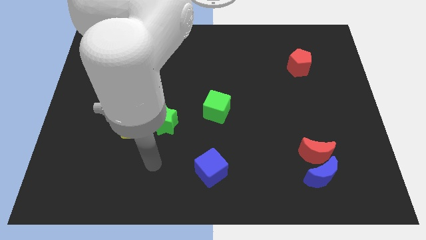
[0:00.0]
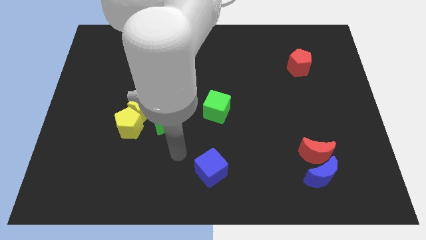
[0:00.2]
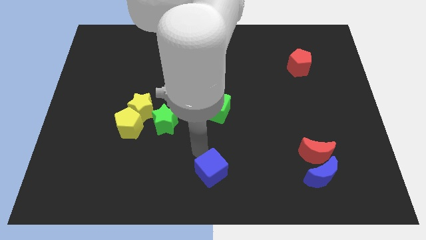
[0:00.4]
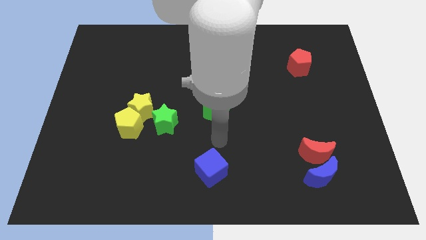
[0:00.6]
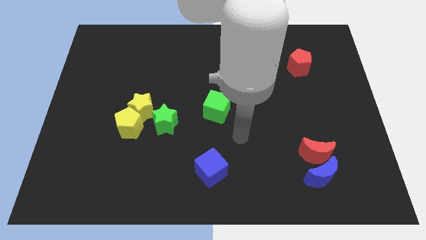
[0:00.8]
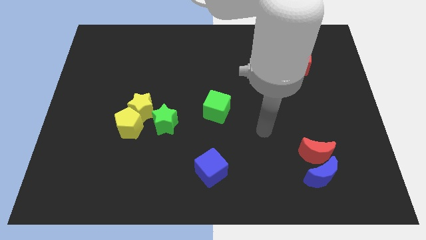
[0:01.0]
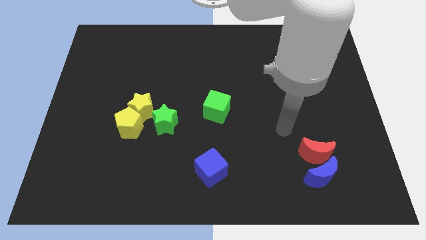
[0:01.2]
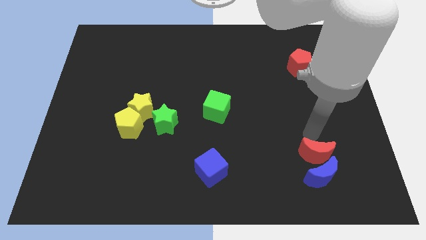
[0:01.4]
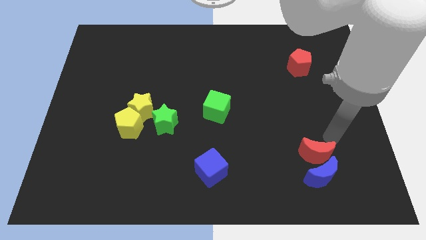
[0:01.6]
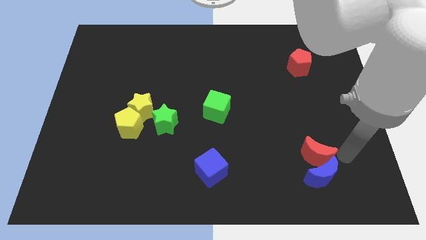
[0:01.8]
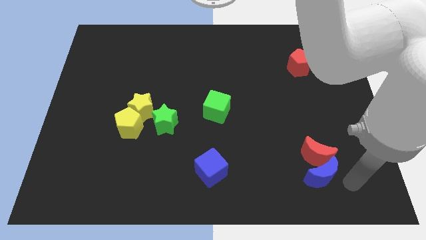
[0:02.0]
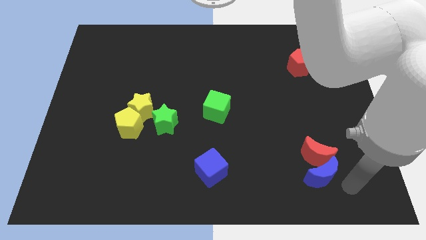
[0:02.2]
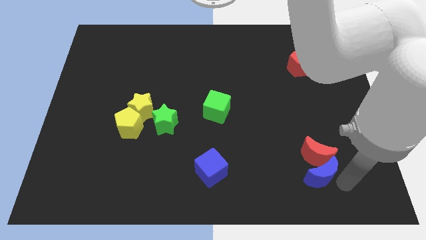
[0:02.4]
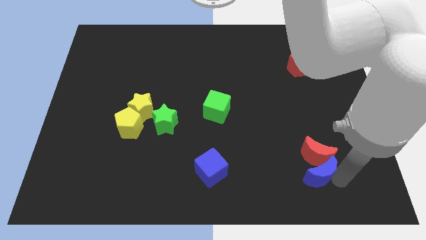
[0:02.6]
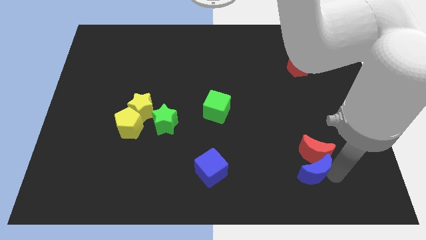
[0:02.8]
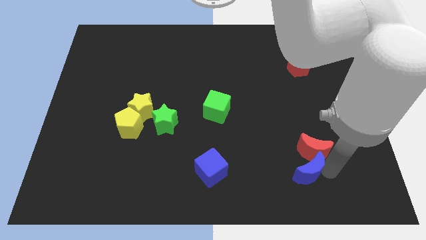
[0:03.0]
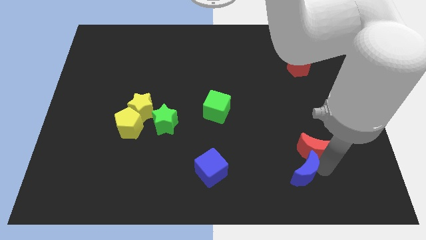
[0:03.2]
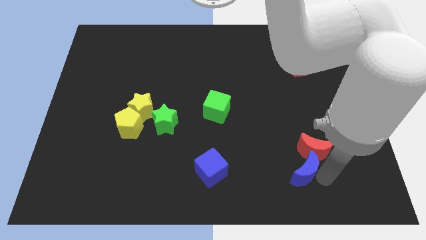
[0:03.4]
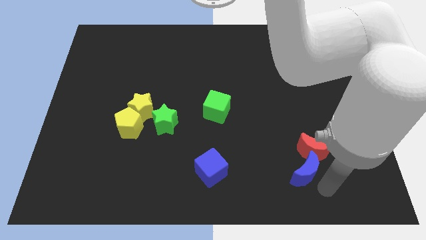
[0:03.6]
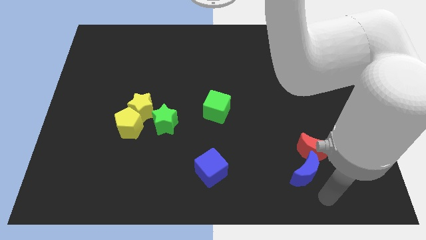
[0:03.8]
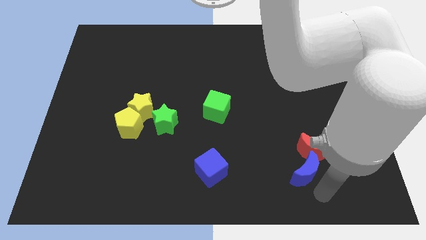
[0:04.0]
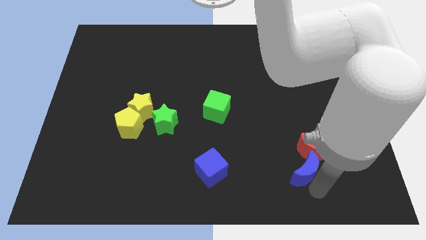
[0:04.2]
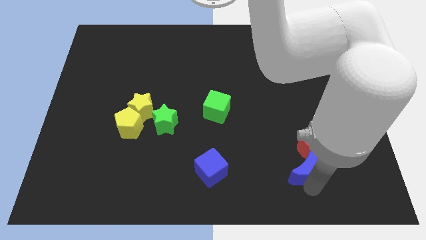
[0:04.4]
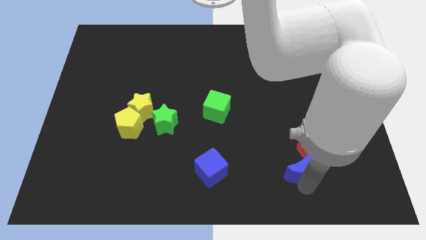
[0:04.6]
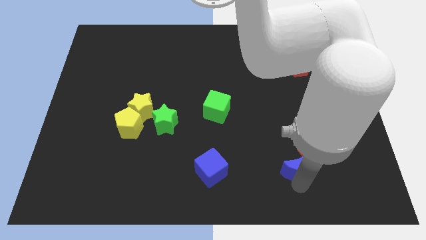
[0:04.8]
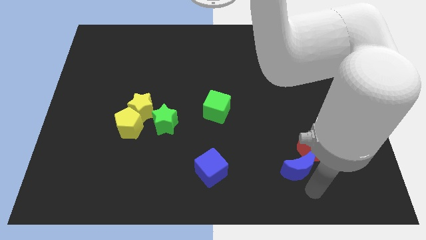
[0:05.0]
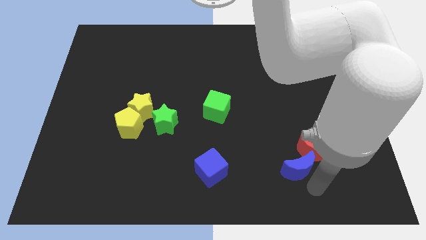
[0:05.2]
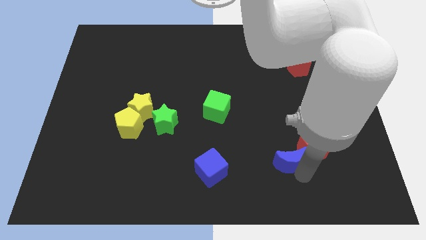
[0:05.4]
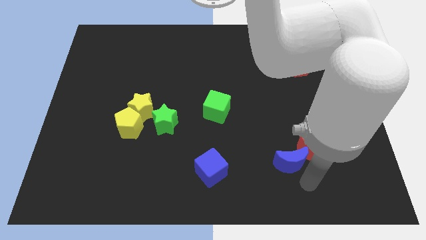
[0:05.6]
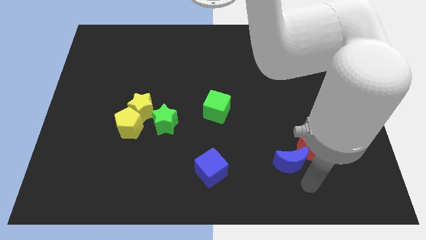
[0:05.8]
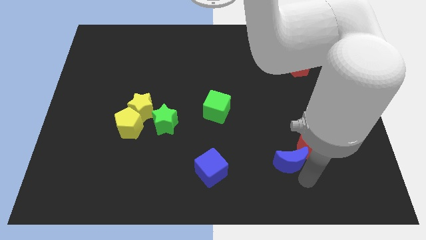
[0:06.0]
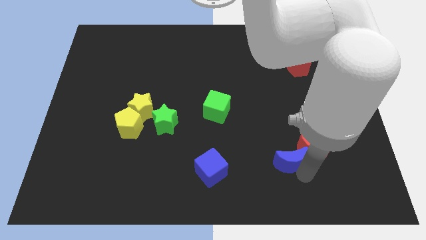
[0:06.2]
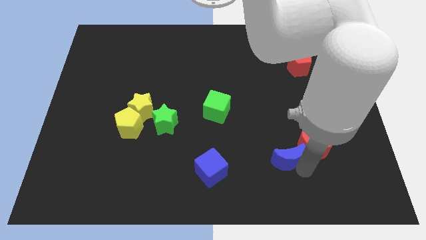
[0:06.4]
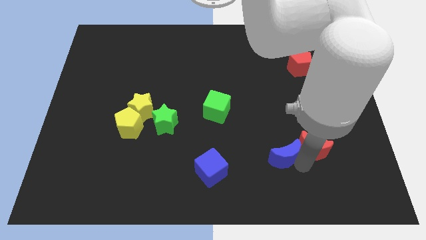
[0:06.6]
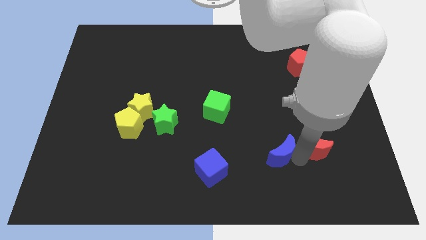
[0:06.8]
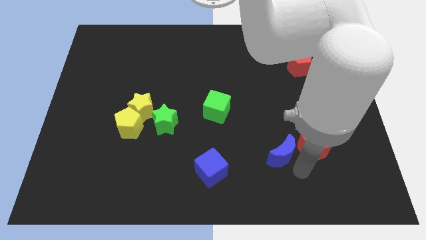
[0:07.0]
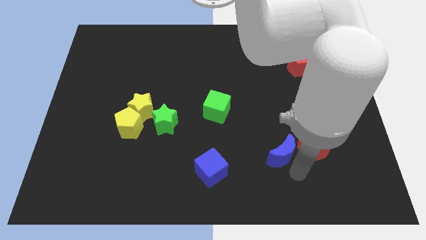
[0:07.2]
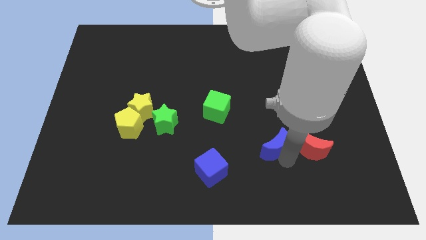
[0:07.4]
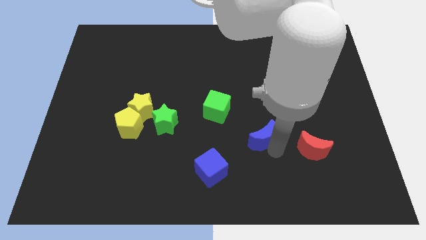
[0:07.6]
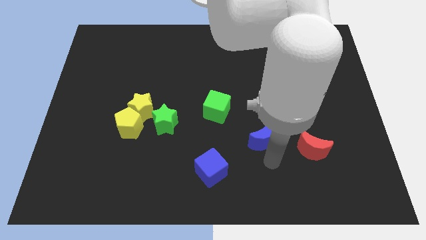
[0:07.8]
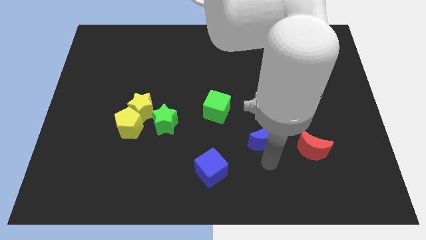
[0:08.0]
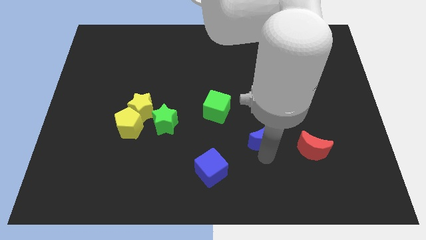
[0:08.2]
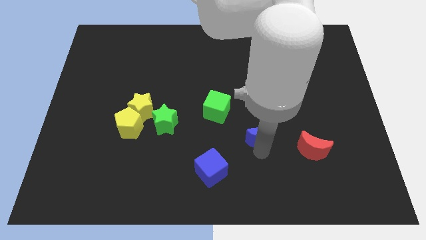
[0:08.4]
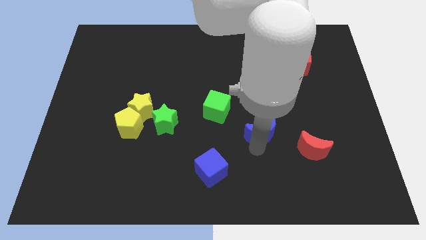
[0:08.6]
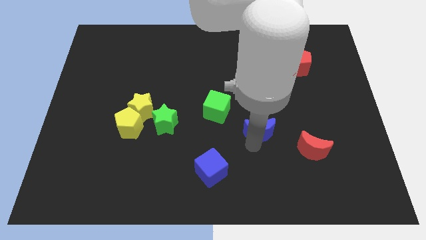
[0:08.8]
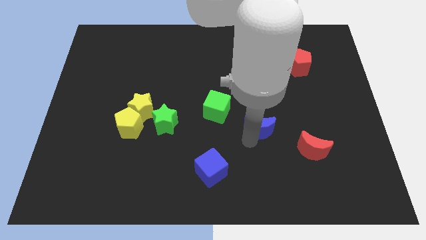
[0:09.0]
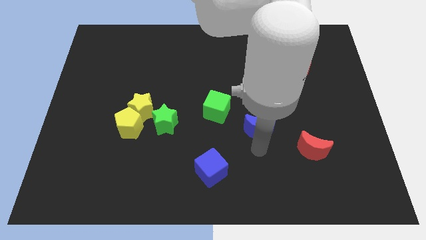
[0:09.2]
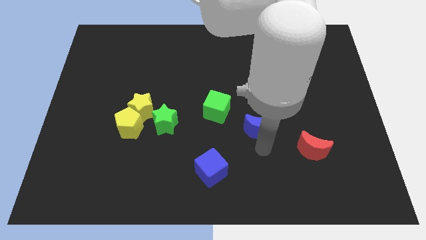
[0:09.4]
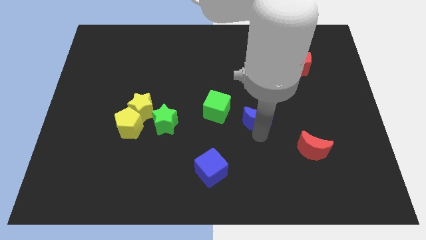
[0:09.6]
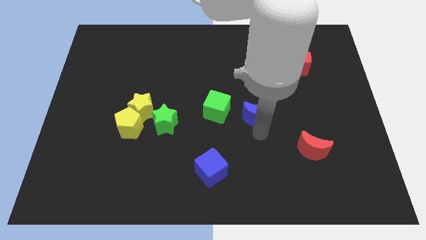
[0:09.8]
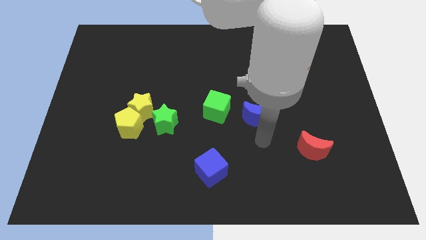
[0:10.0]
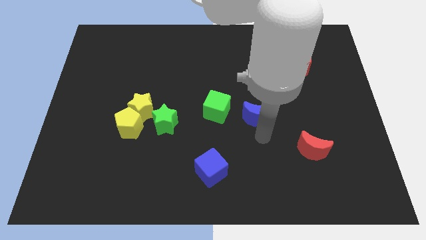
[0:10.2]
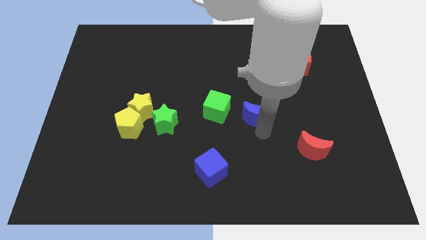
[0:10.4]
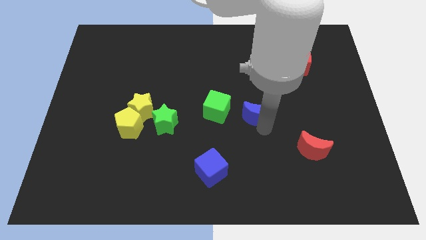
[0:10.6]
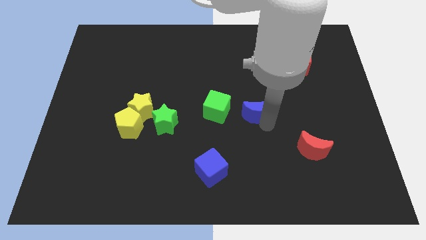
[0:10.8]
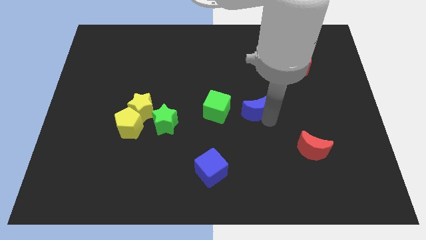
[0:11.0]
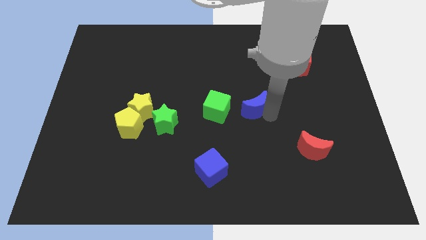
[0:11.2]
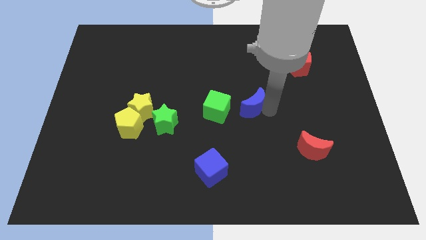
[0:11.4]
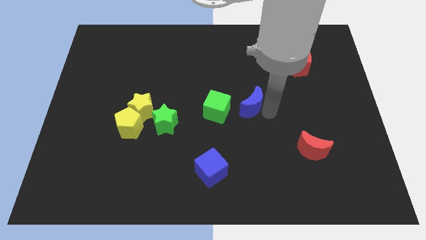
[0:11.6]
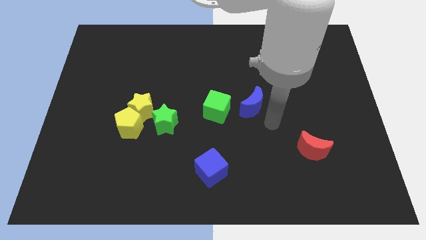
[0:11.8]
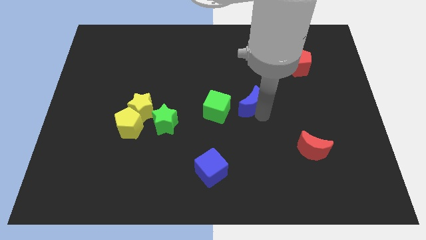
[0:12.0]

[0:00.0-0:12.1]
push the blue moon diagonally up and to the right of the green cube
